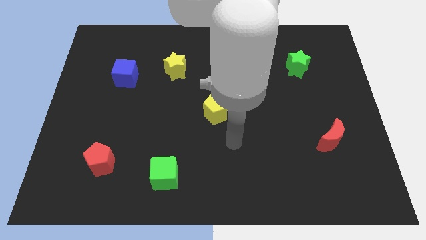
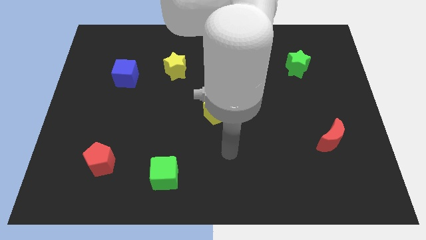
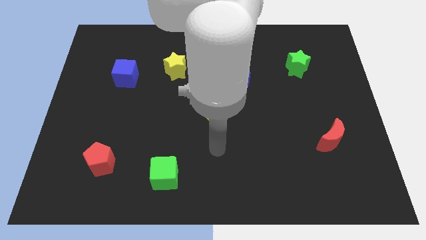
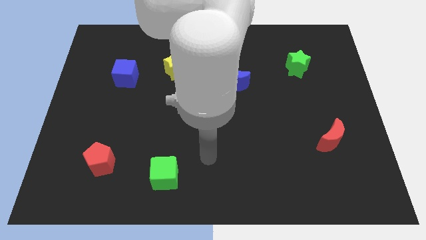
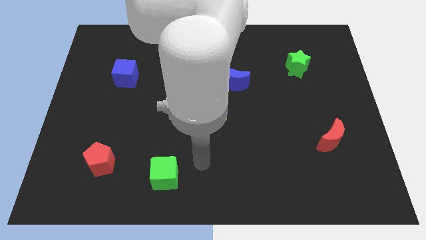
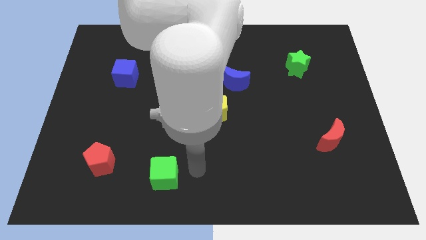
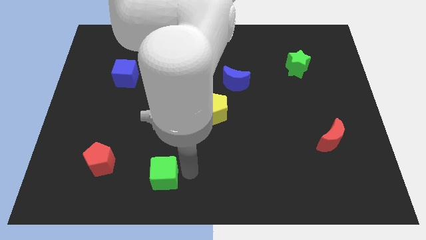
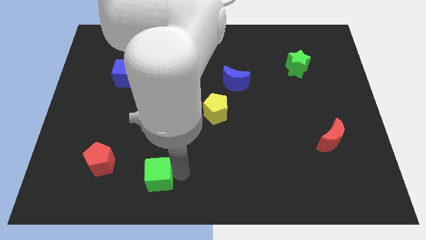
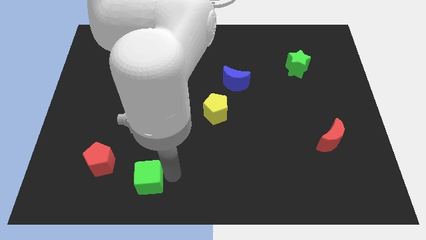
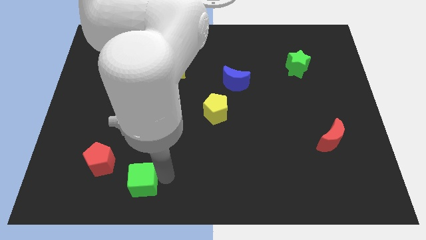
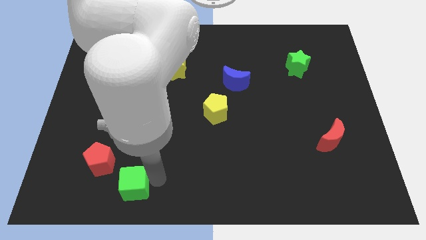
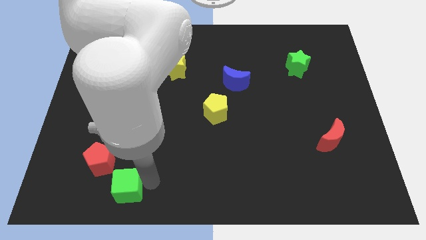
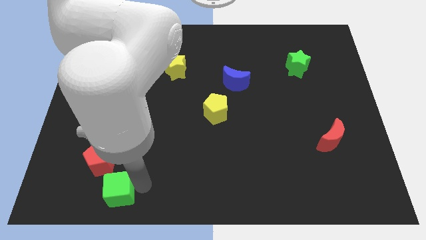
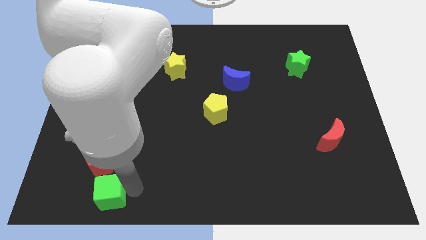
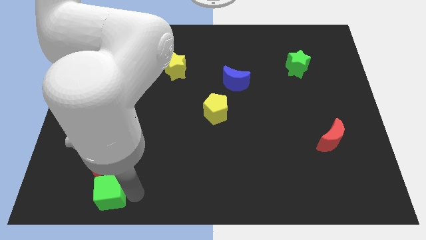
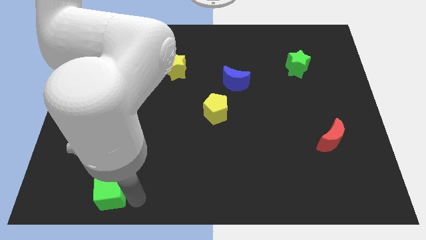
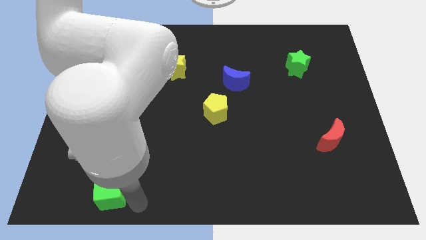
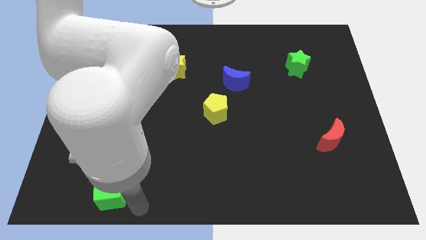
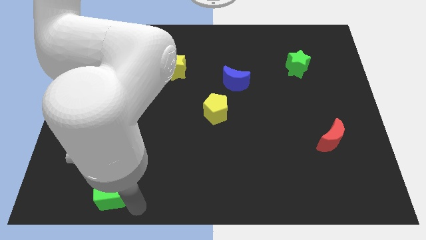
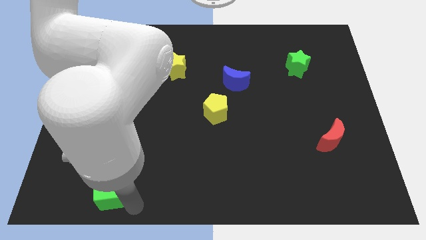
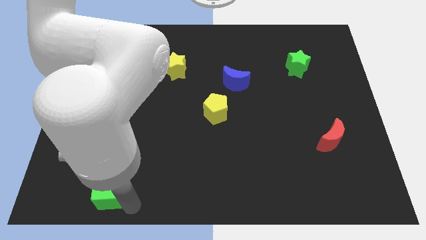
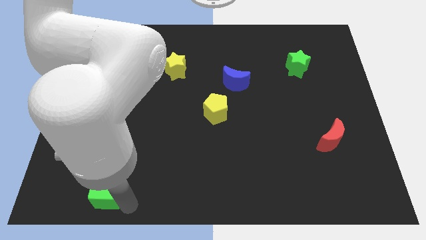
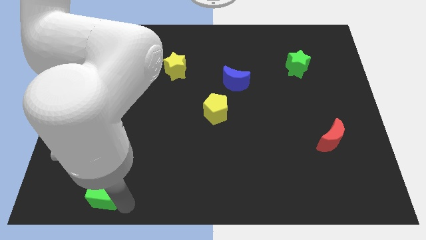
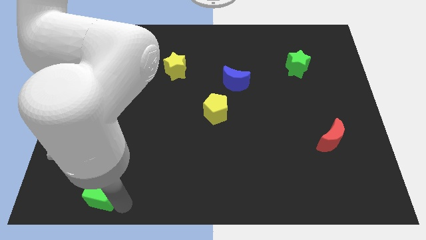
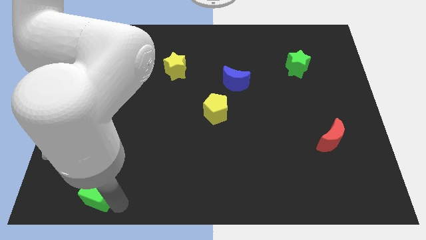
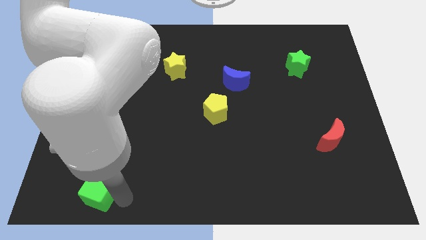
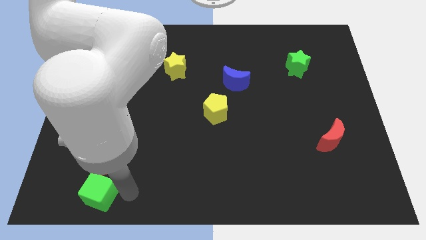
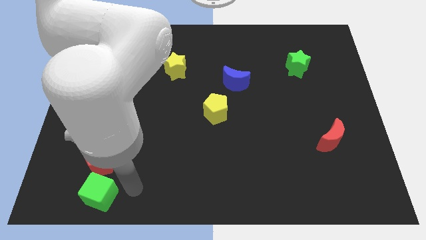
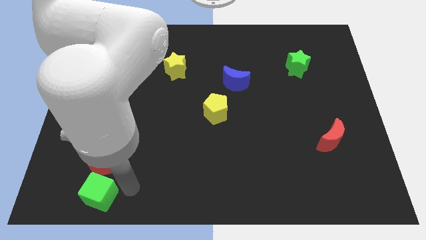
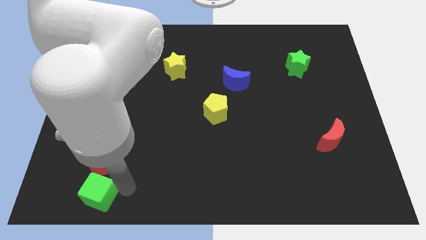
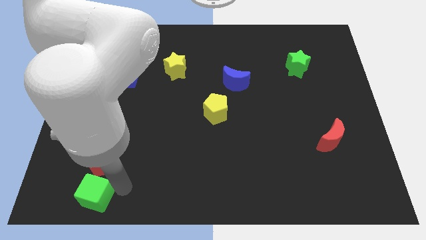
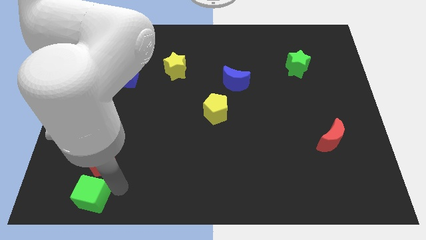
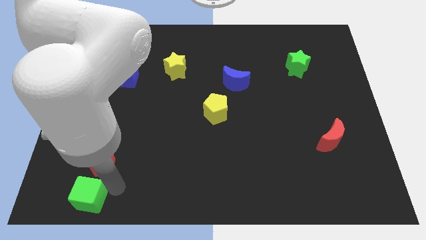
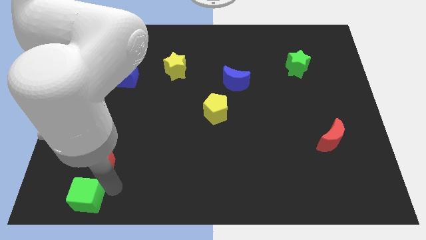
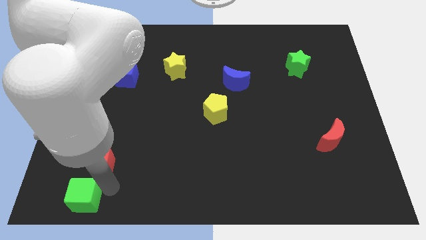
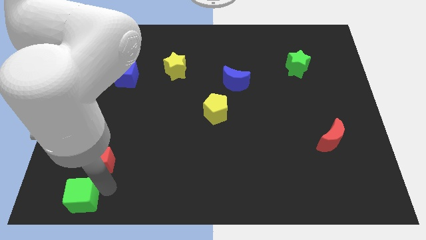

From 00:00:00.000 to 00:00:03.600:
move the green cube to the bottom left

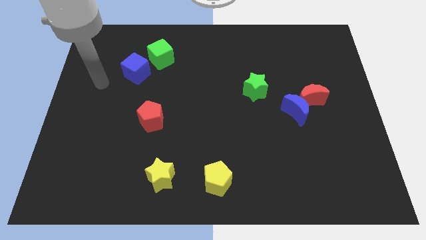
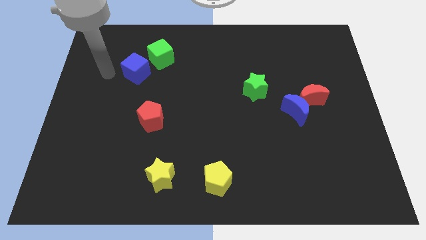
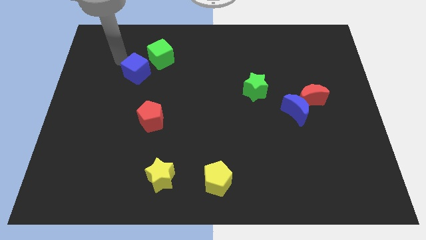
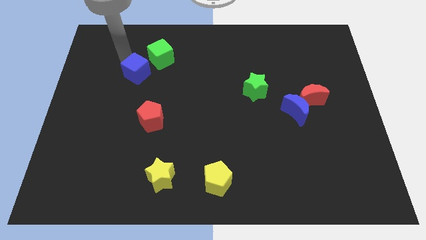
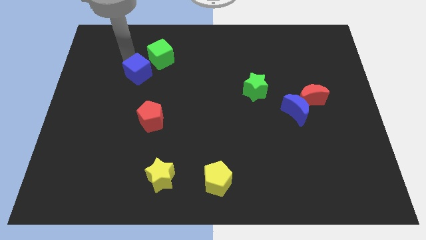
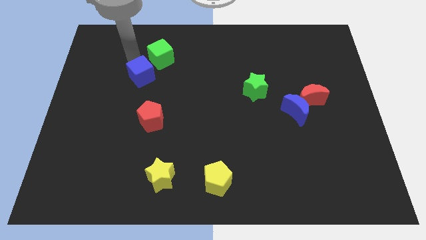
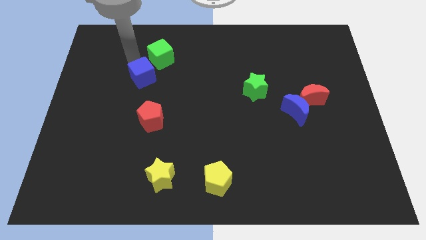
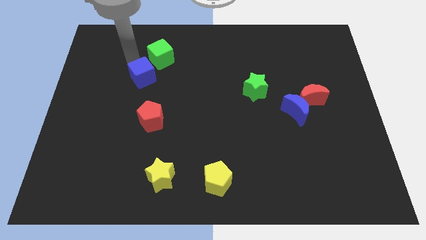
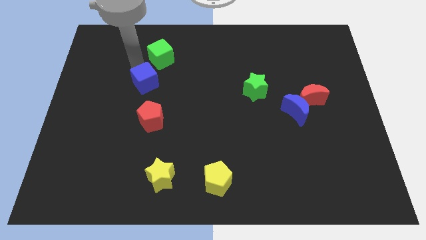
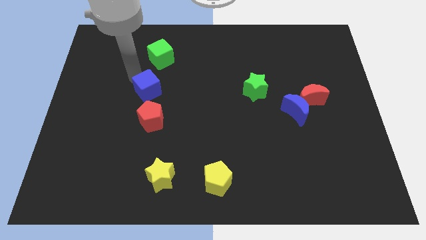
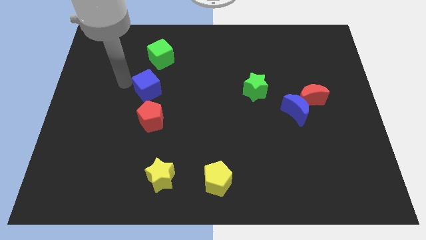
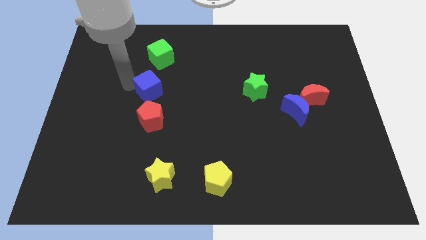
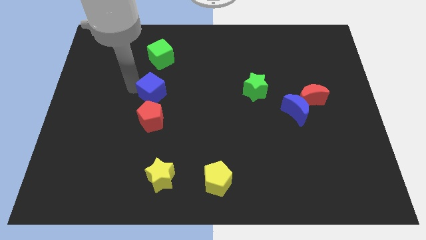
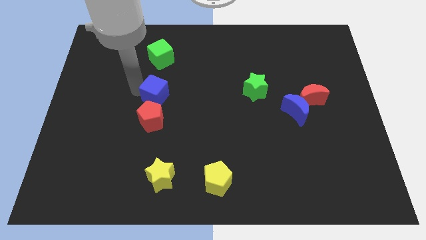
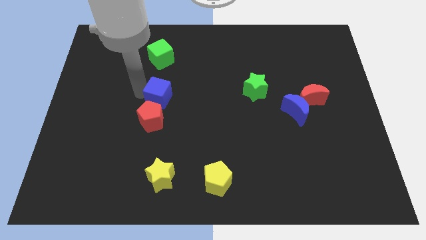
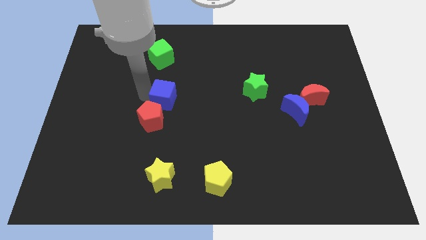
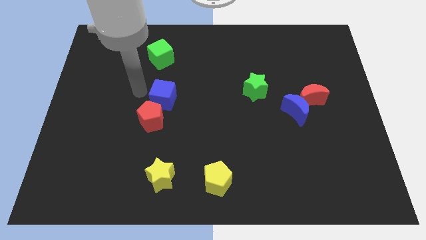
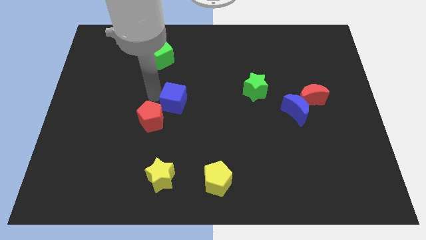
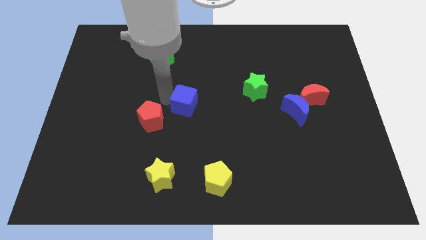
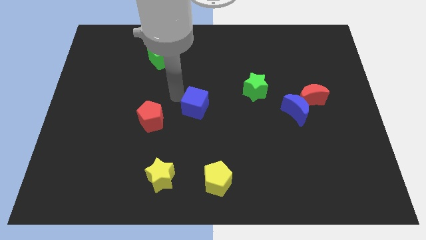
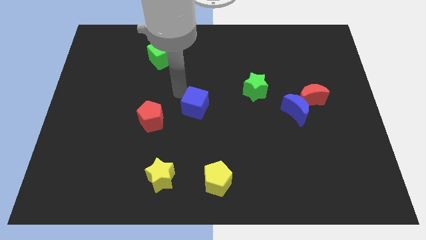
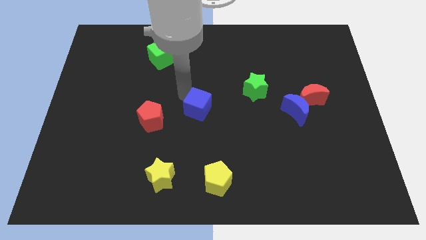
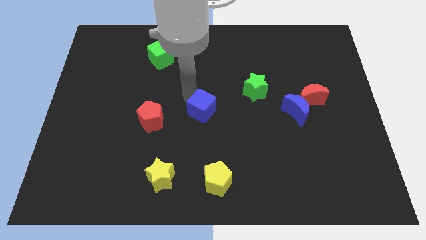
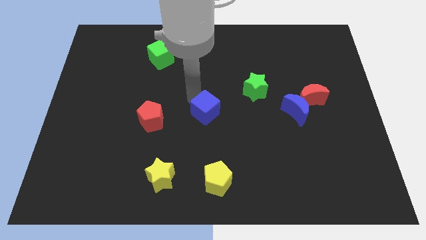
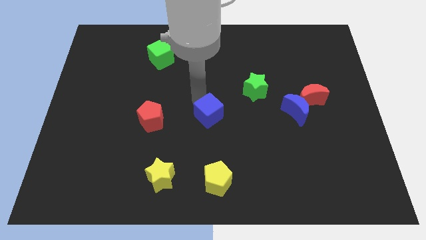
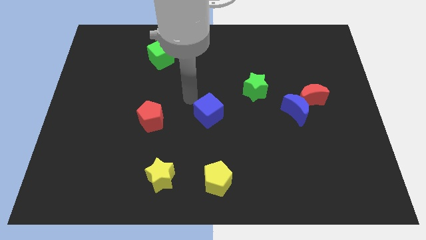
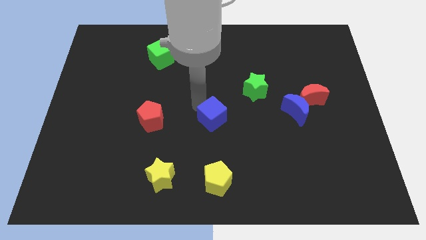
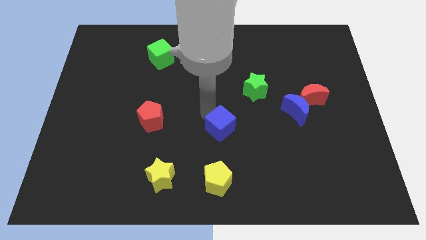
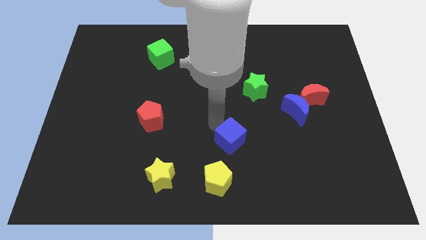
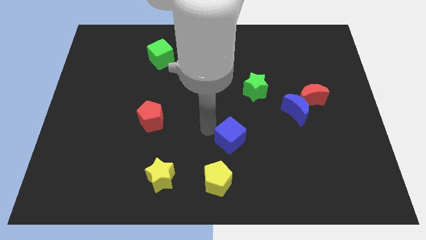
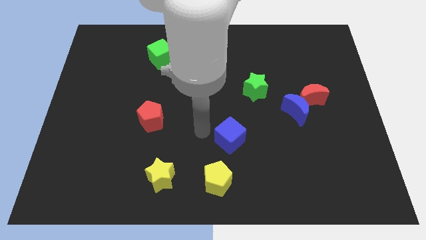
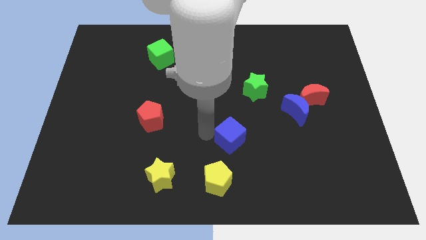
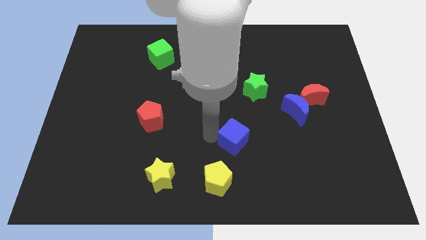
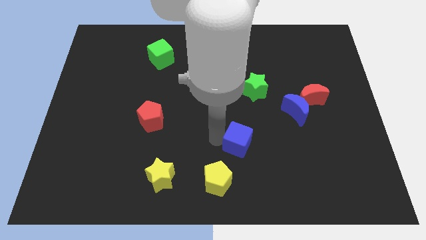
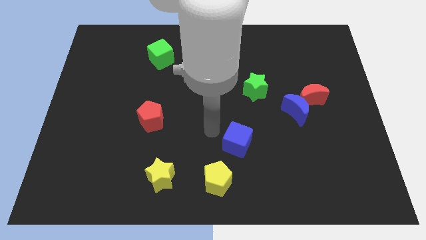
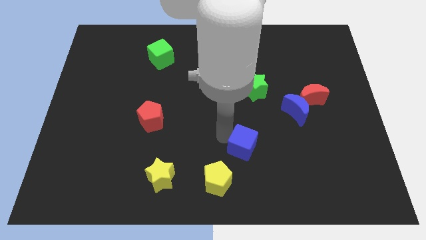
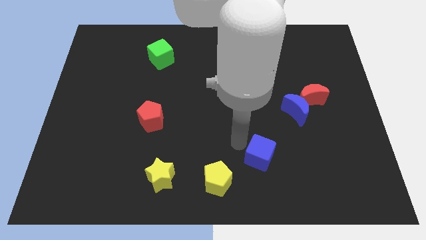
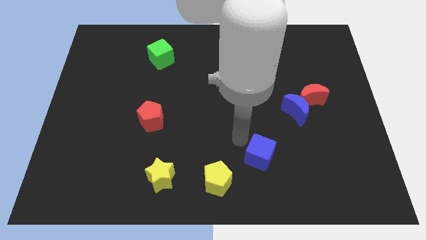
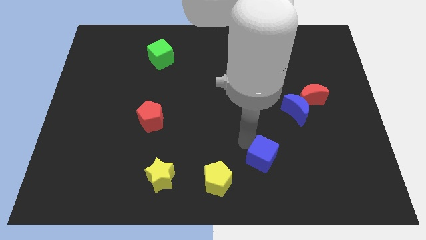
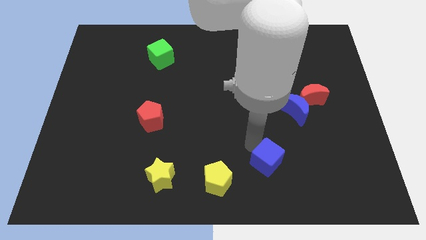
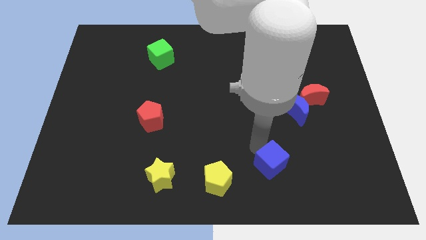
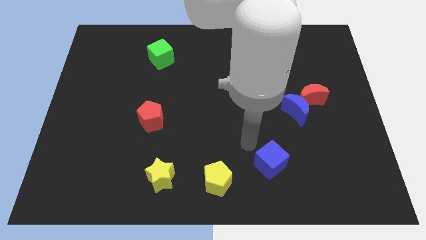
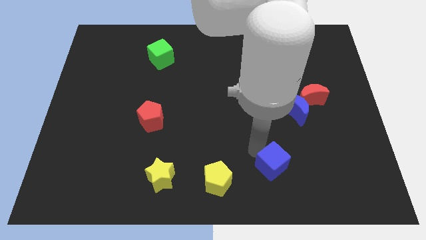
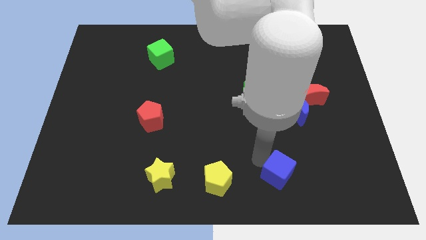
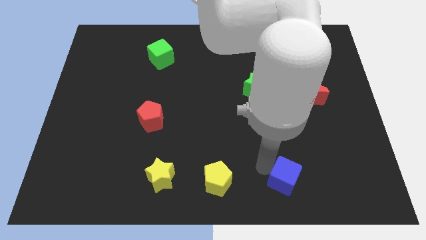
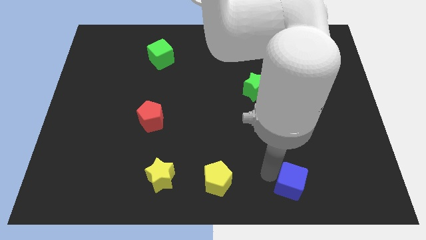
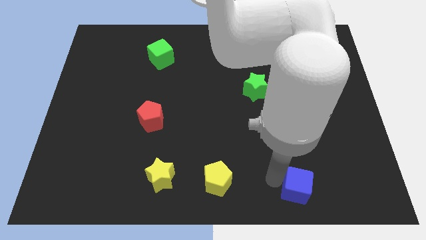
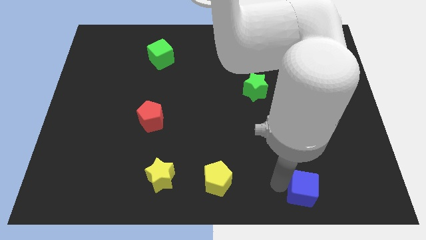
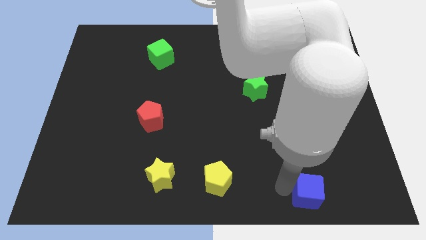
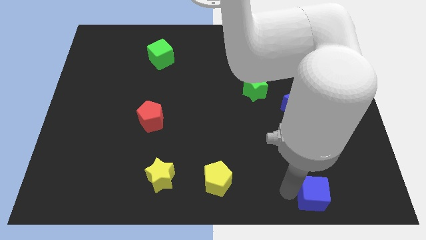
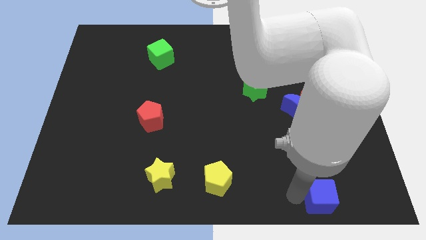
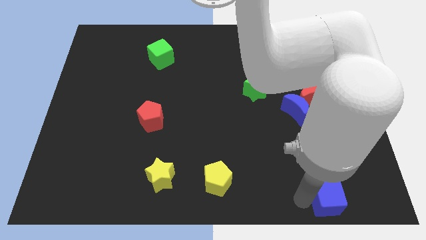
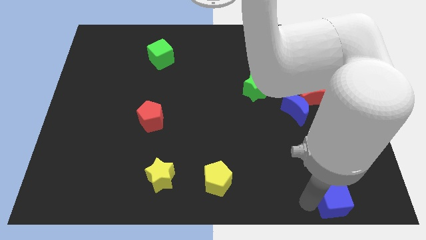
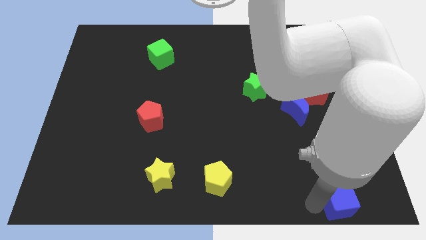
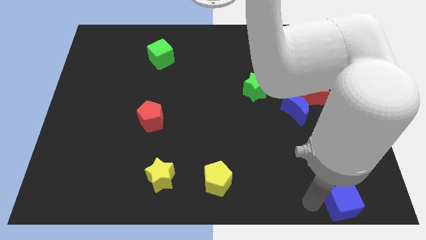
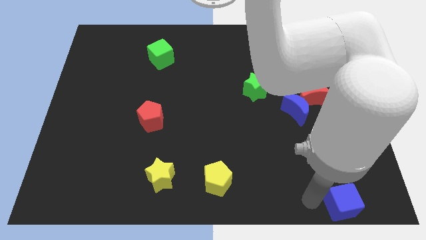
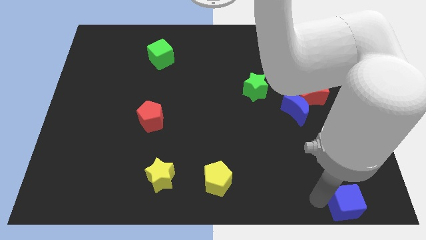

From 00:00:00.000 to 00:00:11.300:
move the blue cube to the bottom right corner
